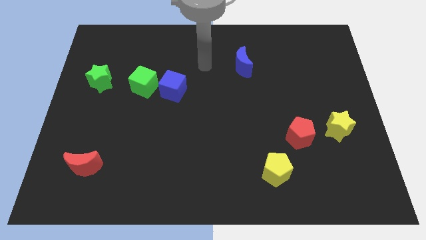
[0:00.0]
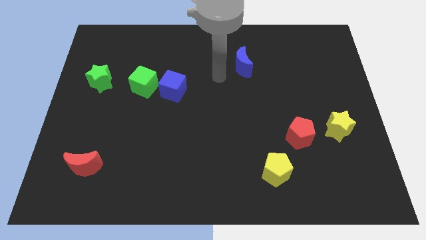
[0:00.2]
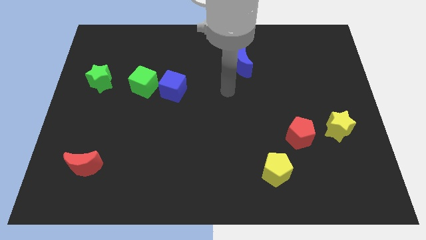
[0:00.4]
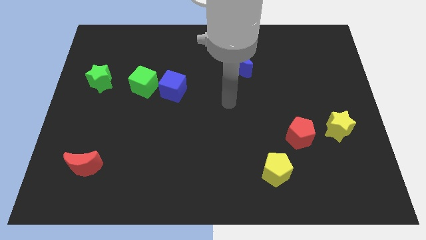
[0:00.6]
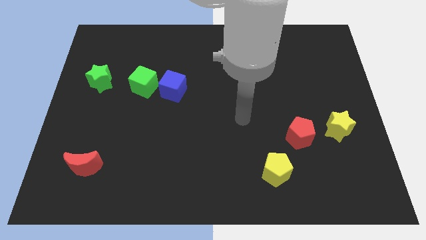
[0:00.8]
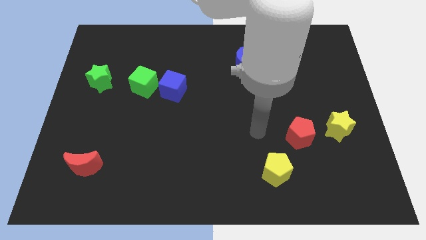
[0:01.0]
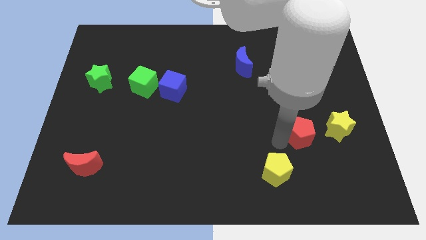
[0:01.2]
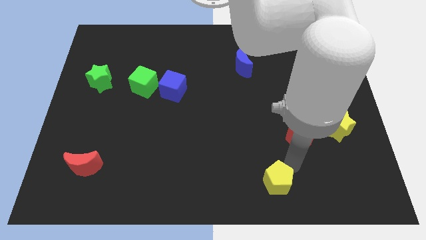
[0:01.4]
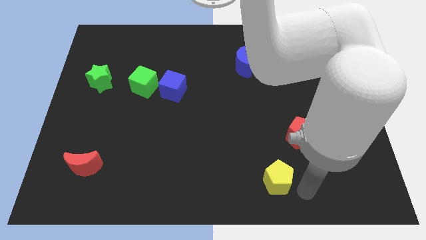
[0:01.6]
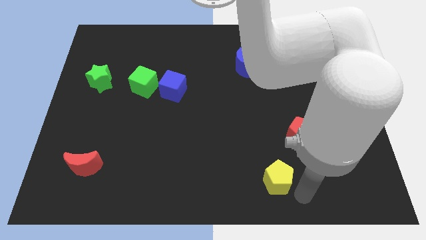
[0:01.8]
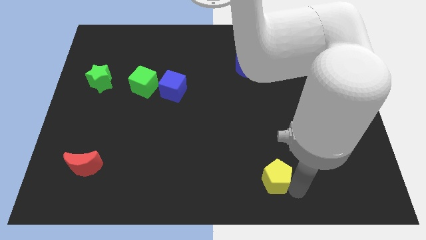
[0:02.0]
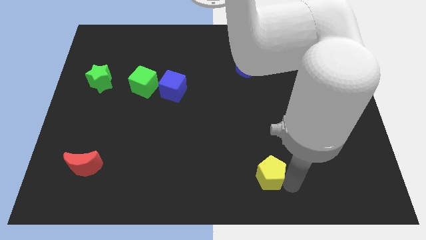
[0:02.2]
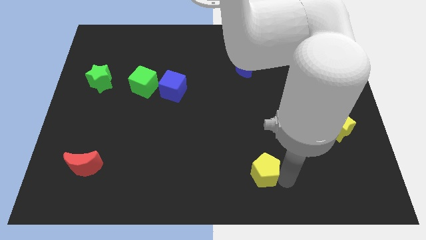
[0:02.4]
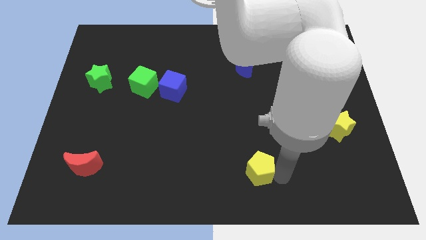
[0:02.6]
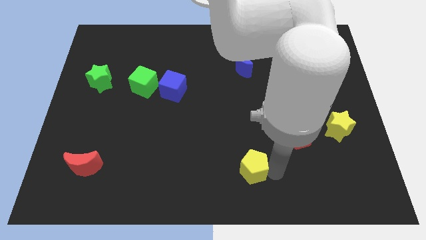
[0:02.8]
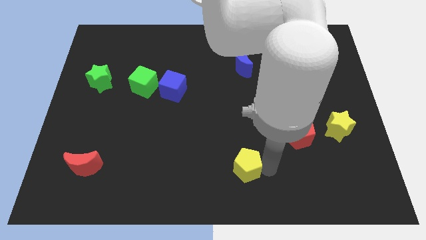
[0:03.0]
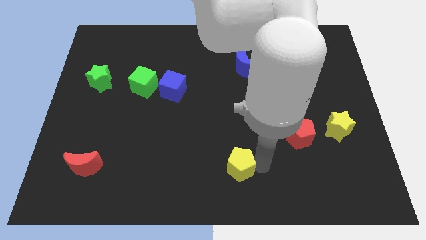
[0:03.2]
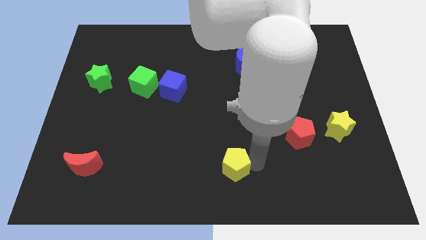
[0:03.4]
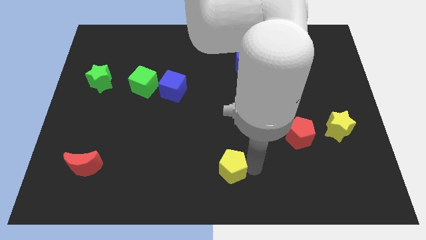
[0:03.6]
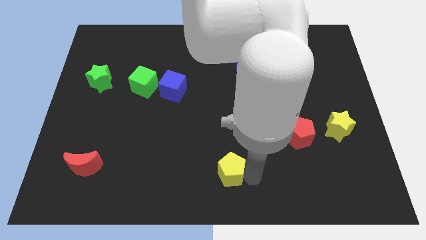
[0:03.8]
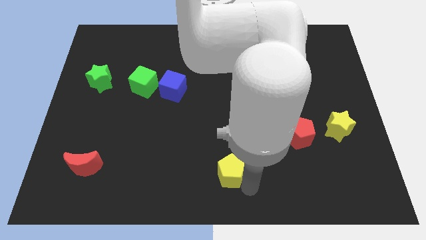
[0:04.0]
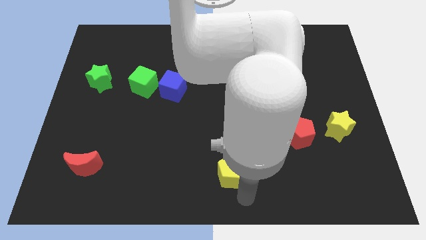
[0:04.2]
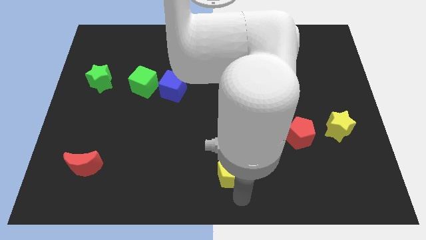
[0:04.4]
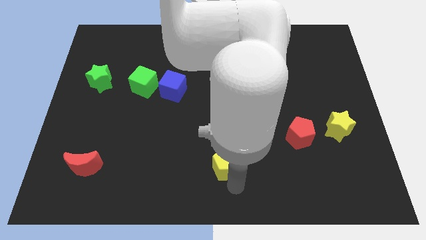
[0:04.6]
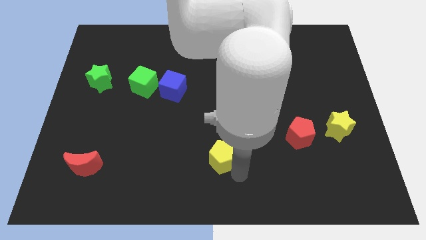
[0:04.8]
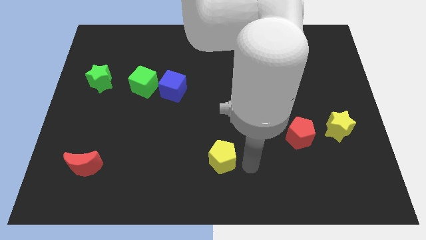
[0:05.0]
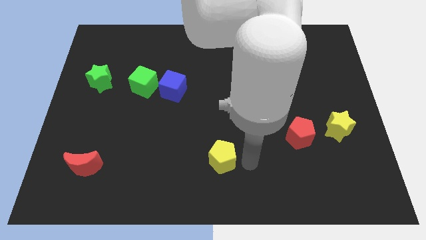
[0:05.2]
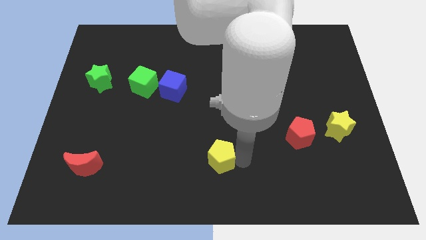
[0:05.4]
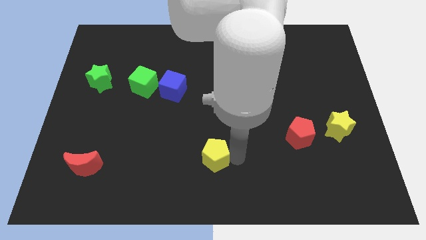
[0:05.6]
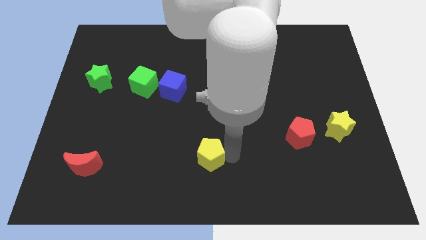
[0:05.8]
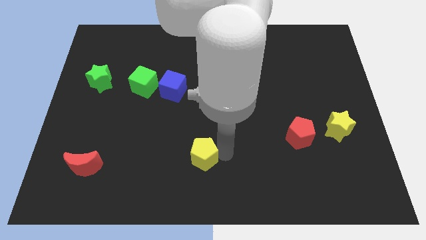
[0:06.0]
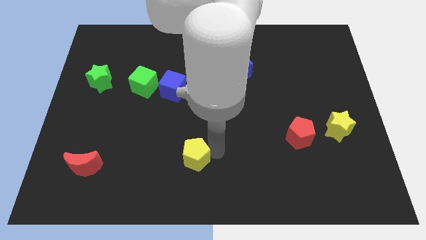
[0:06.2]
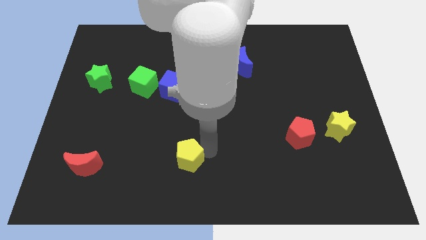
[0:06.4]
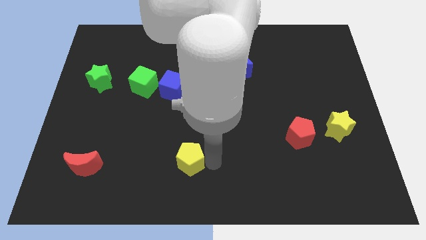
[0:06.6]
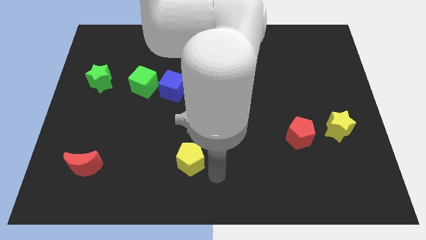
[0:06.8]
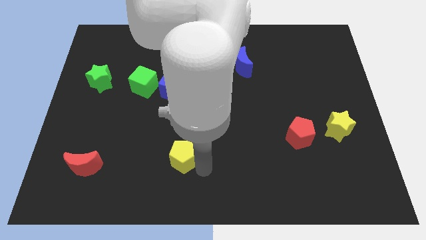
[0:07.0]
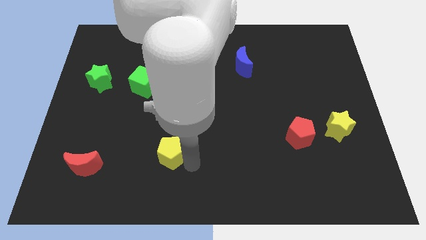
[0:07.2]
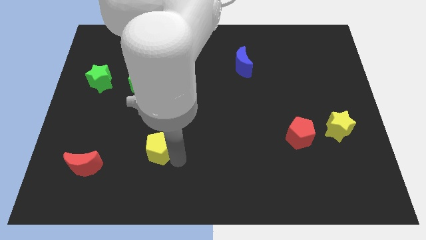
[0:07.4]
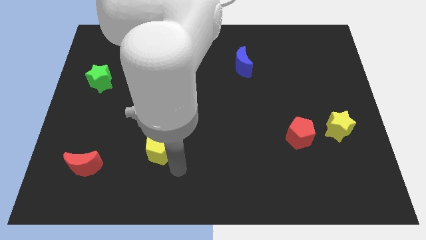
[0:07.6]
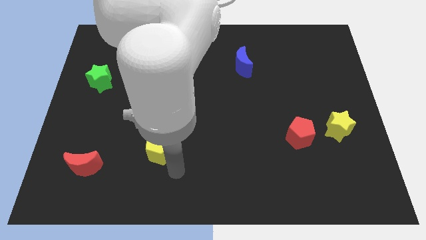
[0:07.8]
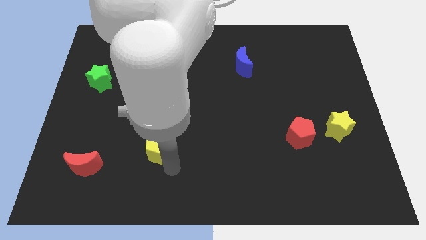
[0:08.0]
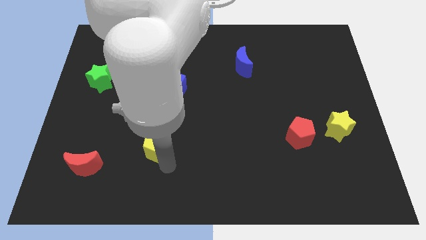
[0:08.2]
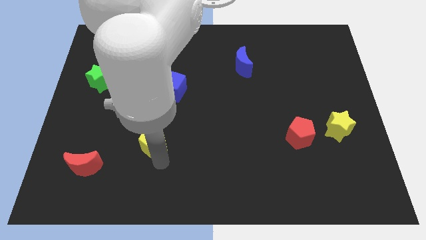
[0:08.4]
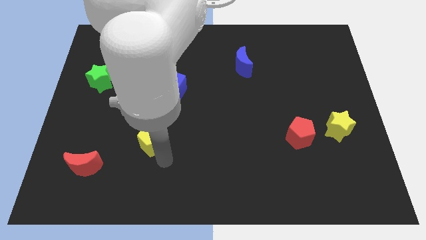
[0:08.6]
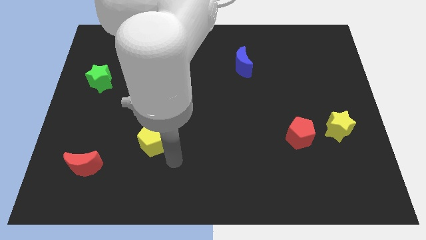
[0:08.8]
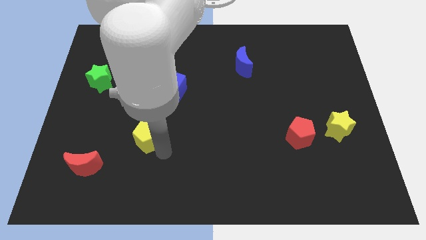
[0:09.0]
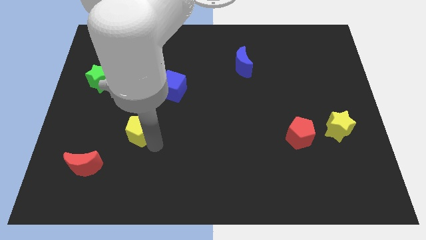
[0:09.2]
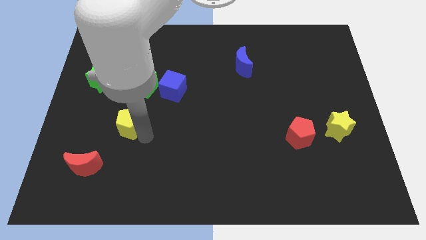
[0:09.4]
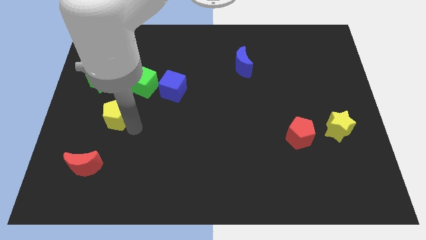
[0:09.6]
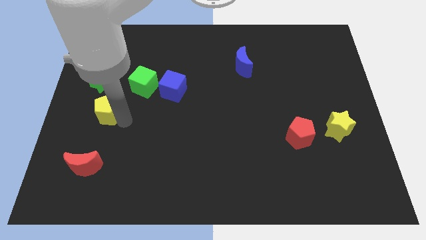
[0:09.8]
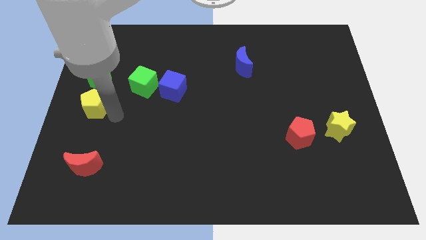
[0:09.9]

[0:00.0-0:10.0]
slide the yellow pentagon to the left side of the board
